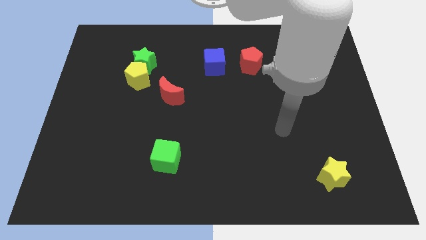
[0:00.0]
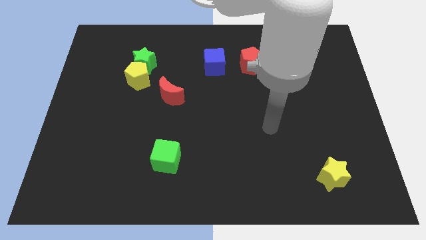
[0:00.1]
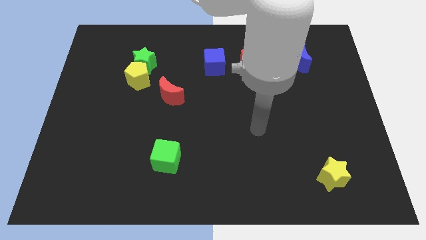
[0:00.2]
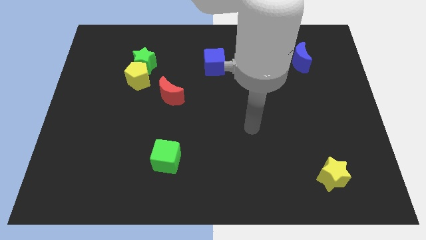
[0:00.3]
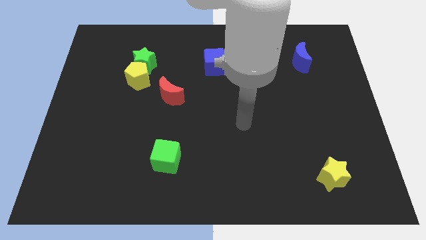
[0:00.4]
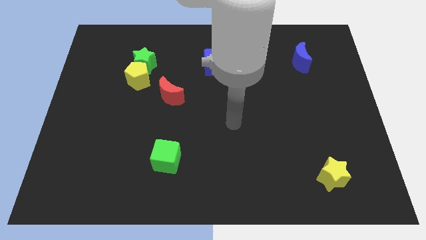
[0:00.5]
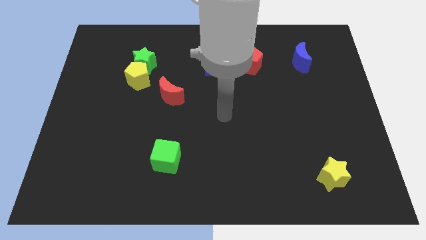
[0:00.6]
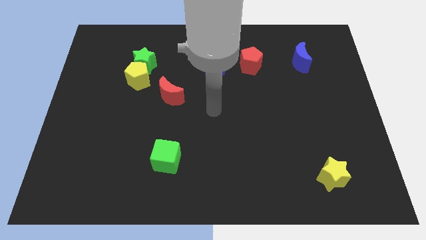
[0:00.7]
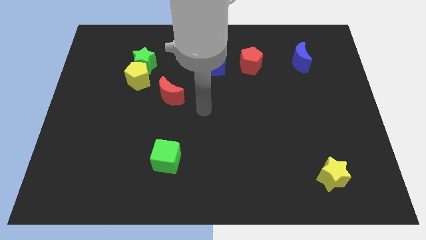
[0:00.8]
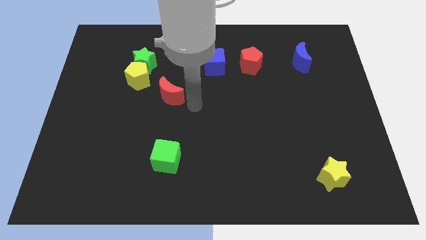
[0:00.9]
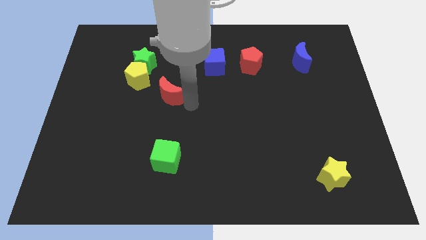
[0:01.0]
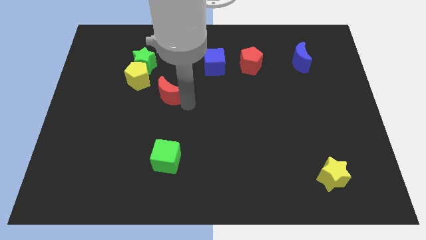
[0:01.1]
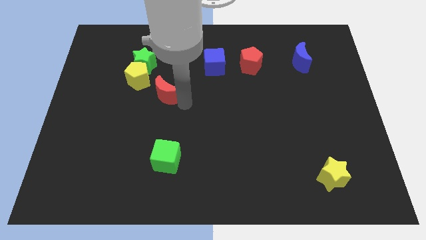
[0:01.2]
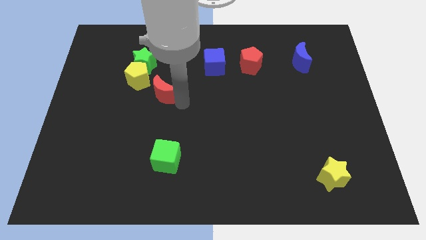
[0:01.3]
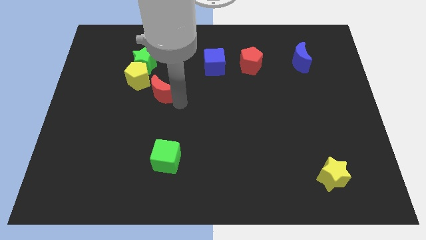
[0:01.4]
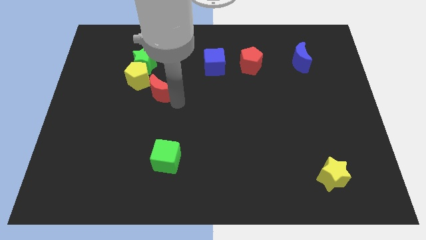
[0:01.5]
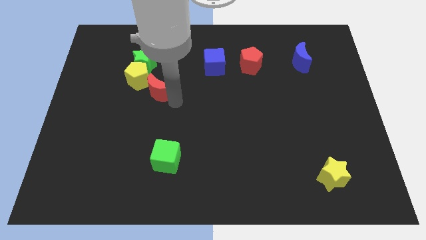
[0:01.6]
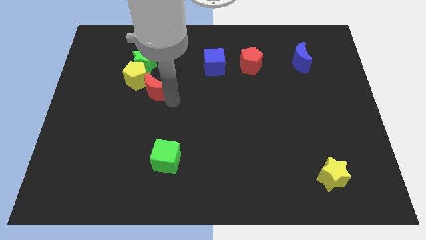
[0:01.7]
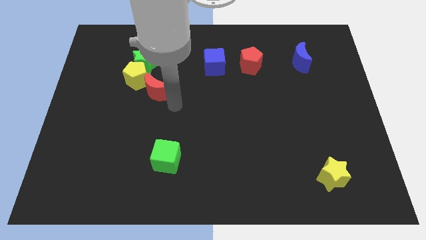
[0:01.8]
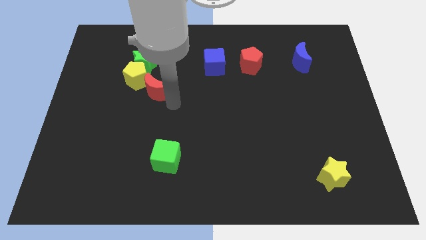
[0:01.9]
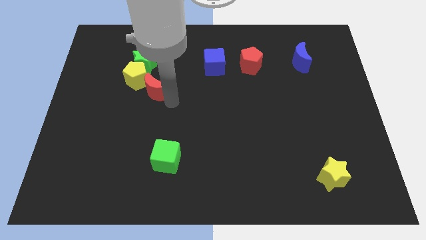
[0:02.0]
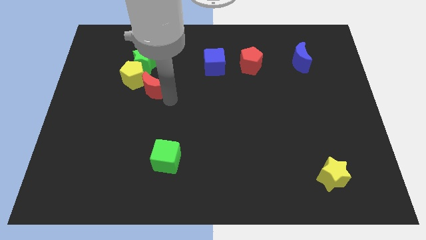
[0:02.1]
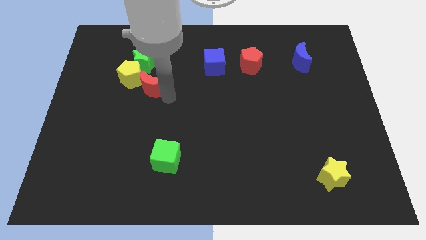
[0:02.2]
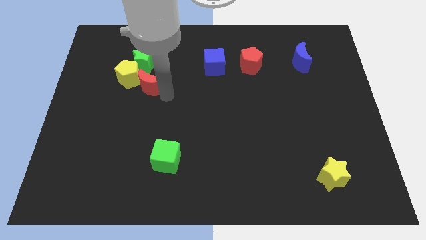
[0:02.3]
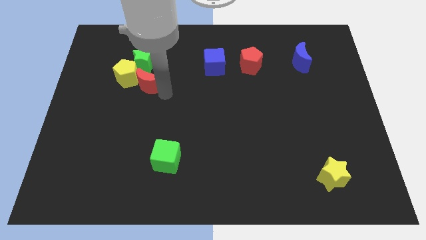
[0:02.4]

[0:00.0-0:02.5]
push the red moon close to the yellow pentagon

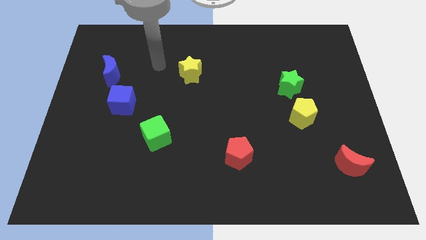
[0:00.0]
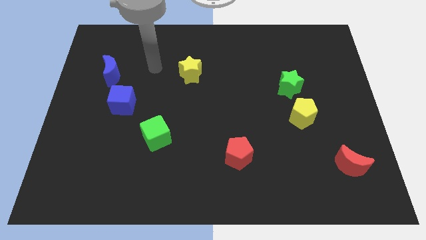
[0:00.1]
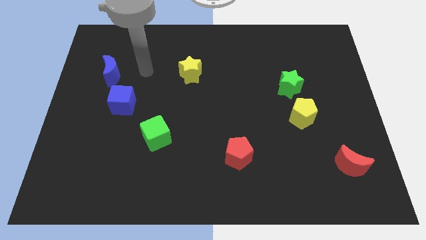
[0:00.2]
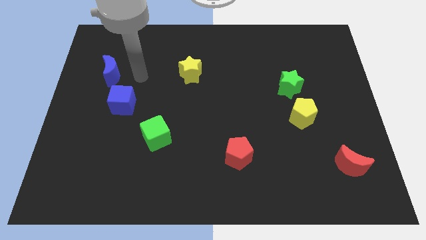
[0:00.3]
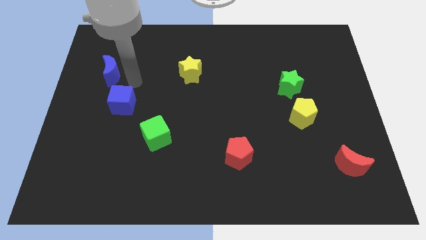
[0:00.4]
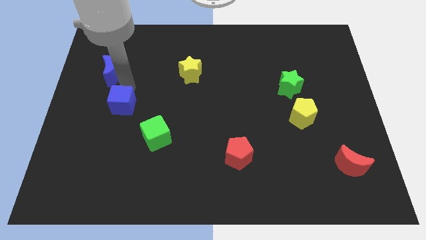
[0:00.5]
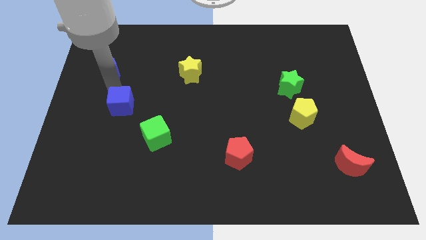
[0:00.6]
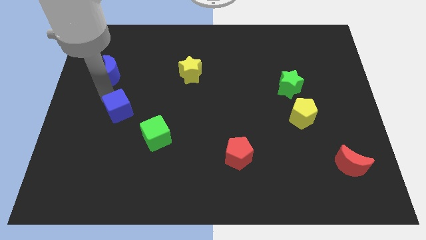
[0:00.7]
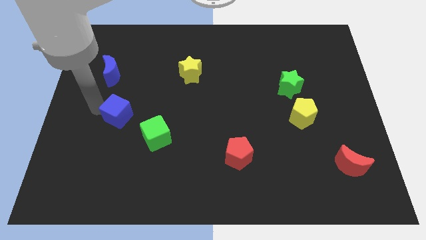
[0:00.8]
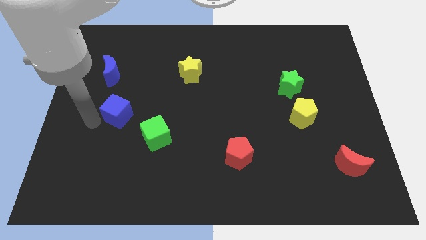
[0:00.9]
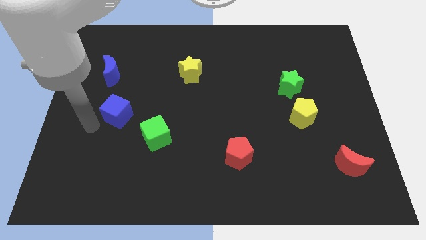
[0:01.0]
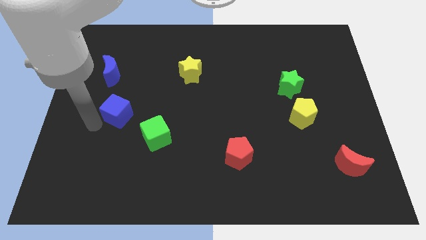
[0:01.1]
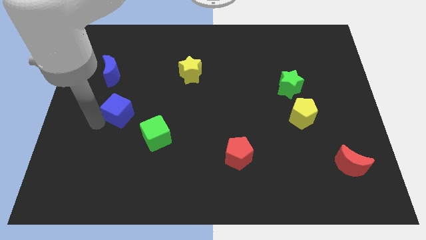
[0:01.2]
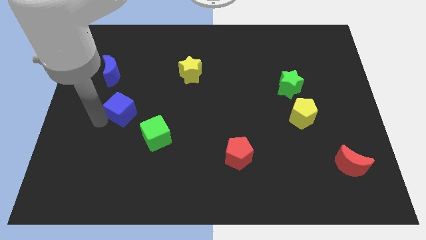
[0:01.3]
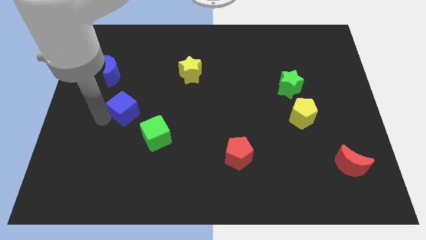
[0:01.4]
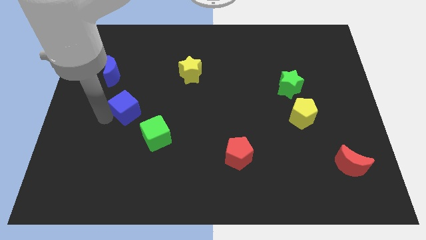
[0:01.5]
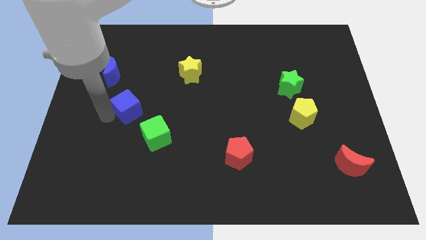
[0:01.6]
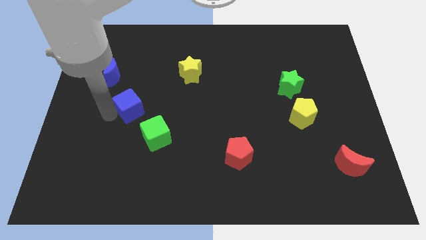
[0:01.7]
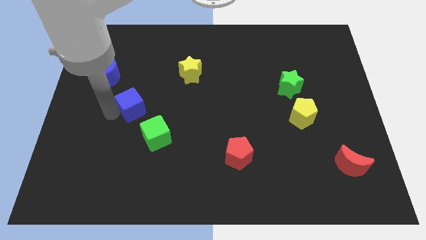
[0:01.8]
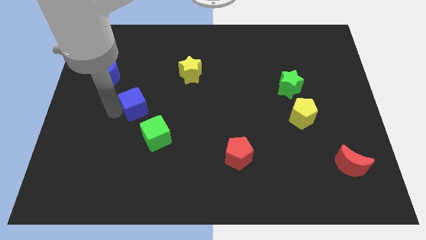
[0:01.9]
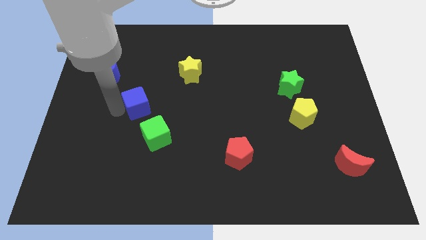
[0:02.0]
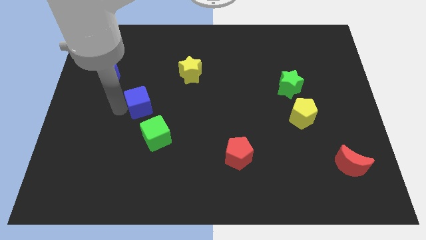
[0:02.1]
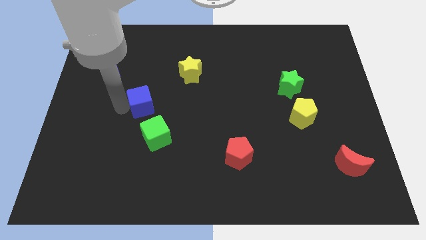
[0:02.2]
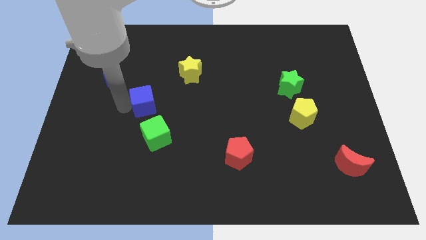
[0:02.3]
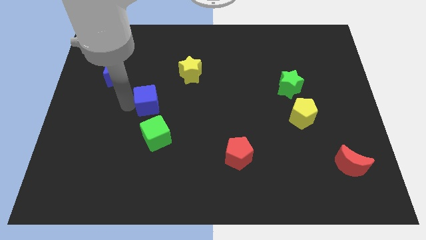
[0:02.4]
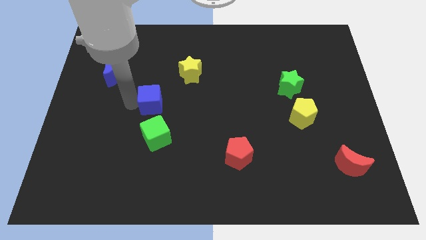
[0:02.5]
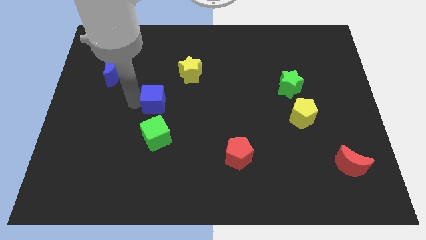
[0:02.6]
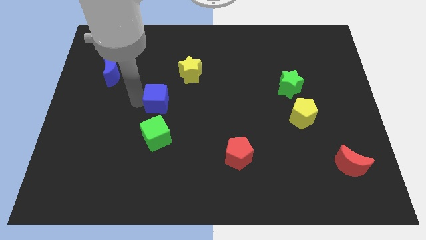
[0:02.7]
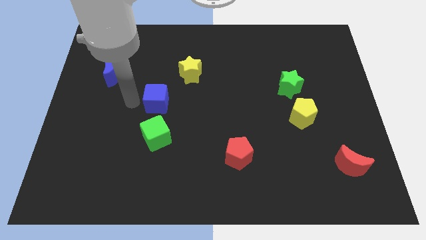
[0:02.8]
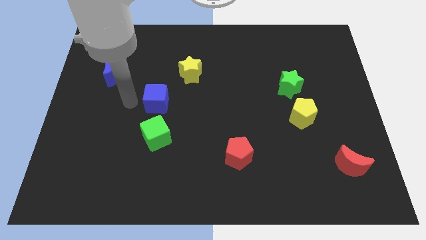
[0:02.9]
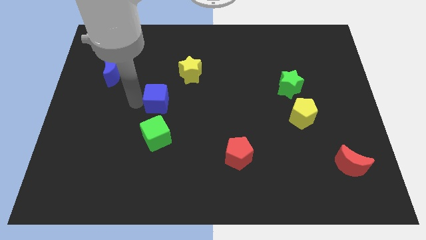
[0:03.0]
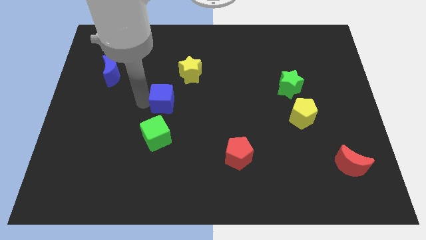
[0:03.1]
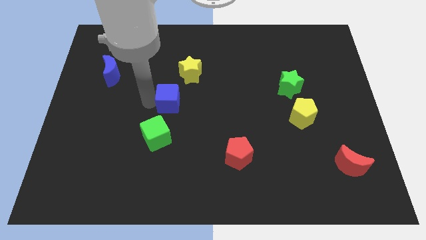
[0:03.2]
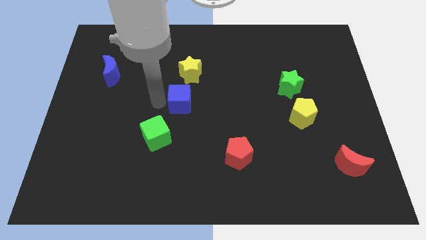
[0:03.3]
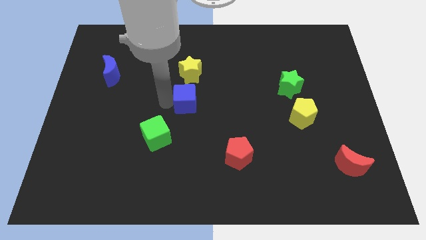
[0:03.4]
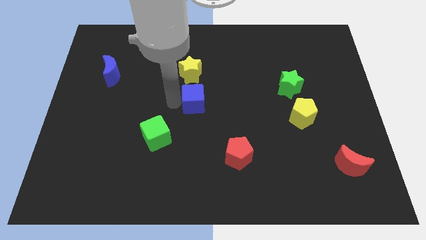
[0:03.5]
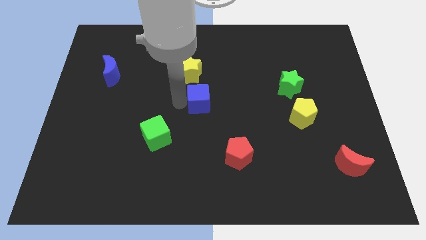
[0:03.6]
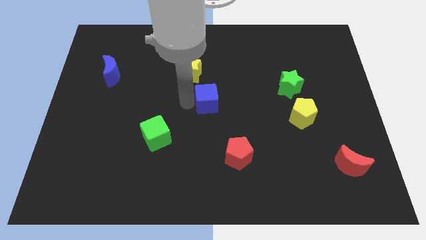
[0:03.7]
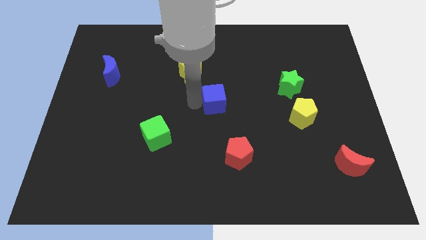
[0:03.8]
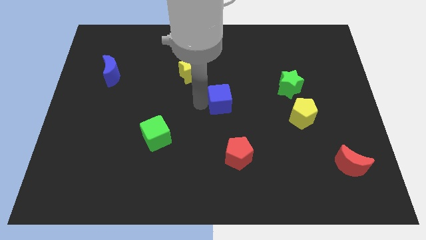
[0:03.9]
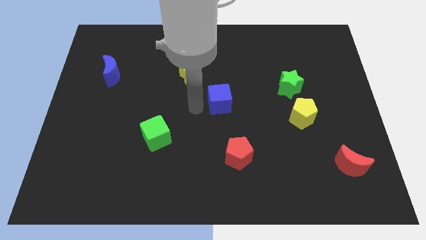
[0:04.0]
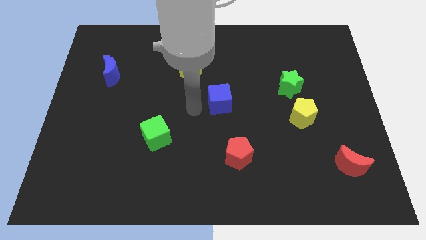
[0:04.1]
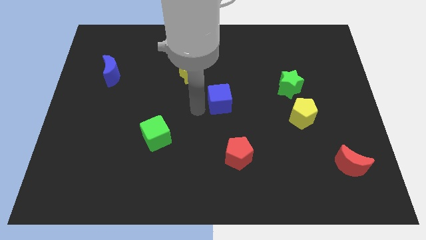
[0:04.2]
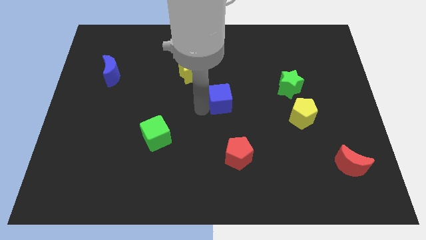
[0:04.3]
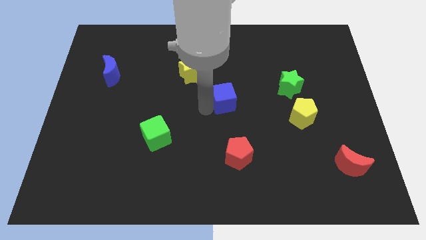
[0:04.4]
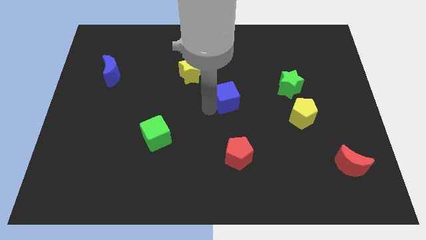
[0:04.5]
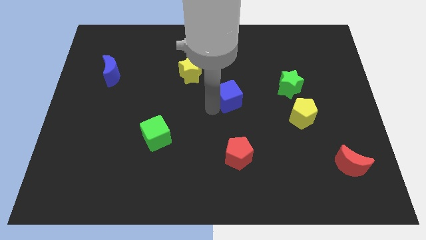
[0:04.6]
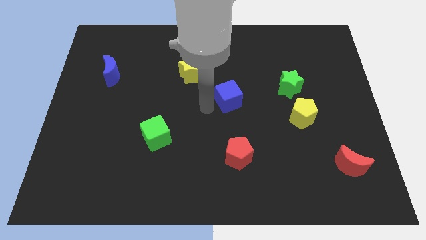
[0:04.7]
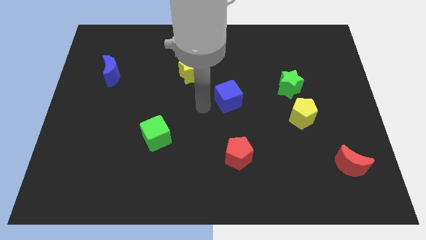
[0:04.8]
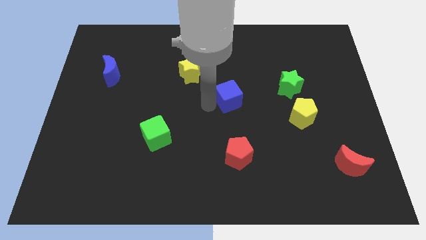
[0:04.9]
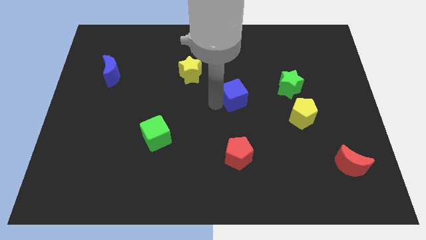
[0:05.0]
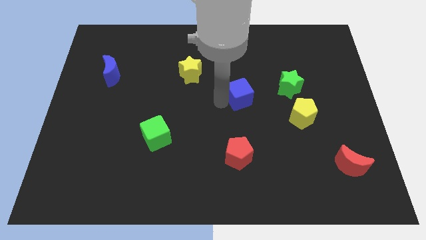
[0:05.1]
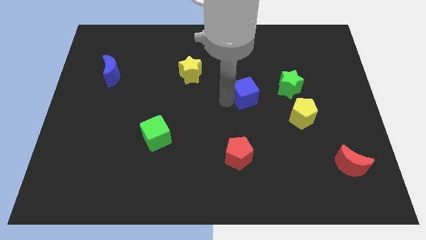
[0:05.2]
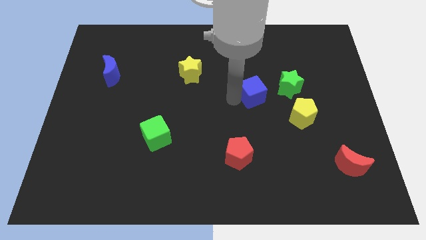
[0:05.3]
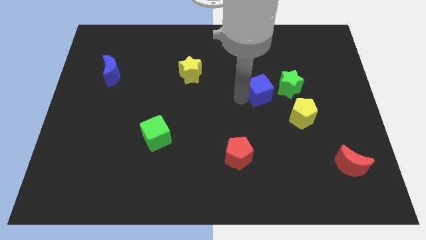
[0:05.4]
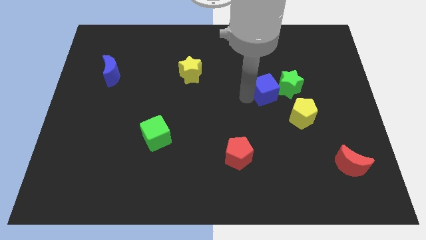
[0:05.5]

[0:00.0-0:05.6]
slide the blue cube towards the green star
